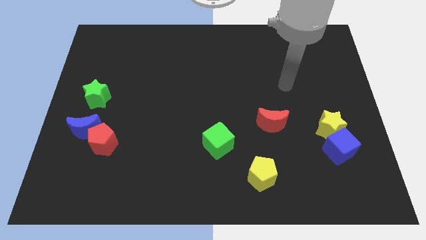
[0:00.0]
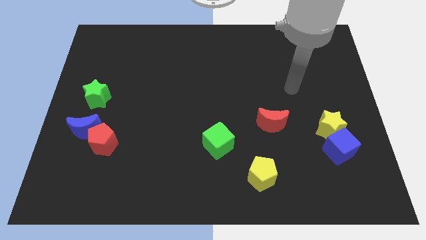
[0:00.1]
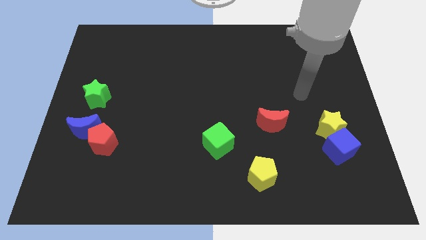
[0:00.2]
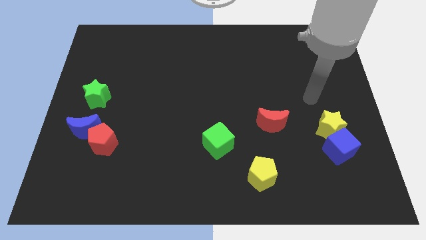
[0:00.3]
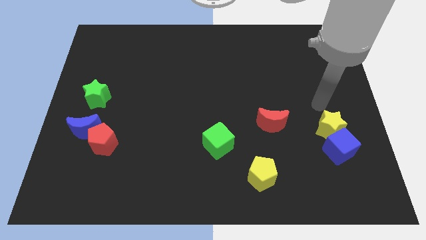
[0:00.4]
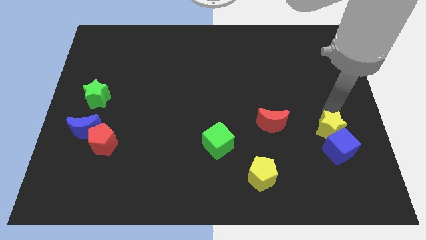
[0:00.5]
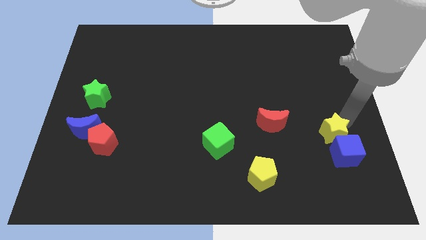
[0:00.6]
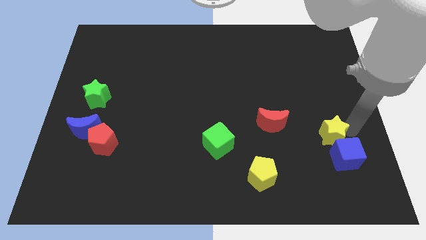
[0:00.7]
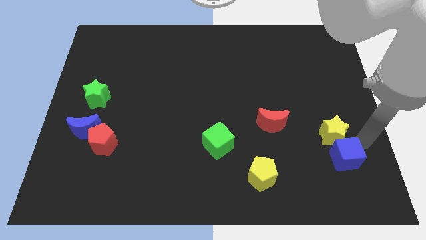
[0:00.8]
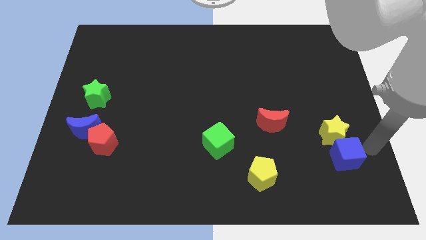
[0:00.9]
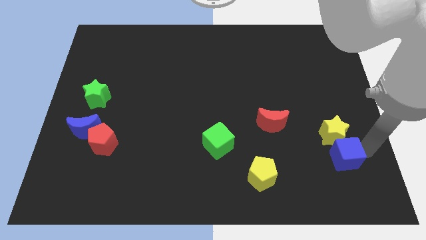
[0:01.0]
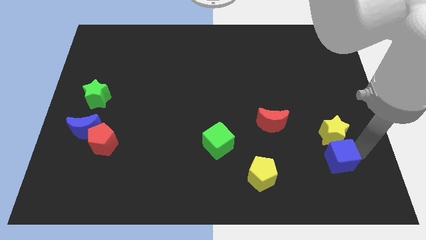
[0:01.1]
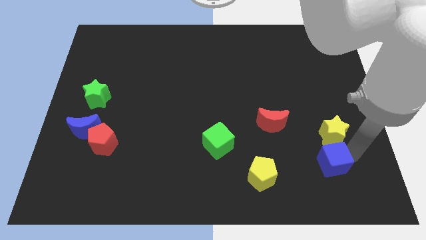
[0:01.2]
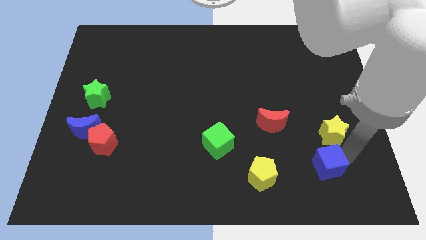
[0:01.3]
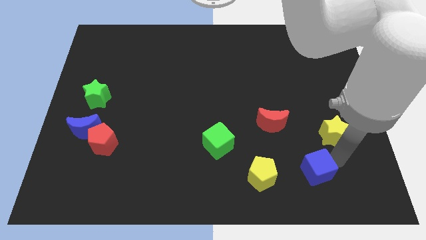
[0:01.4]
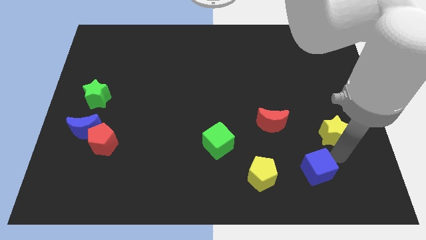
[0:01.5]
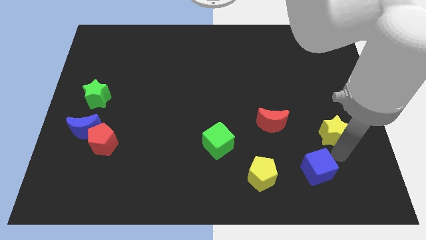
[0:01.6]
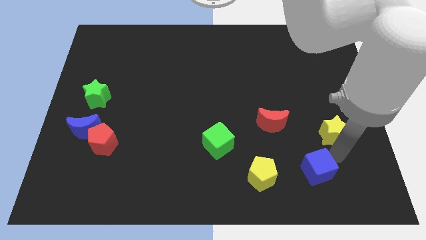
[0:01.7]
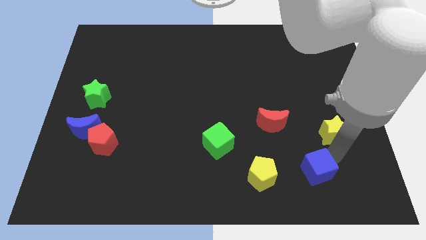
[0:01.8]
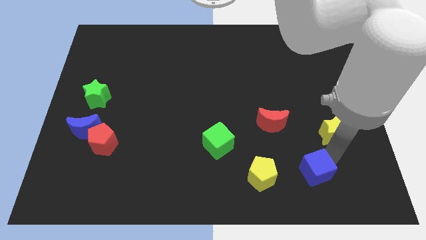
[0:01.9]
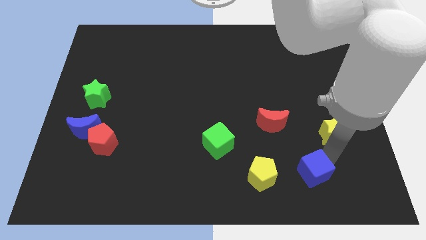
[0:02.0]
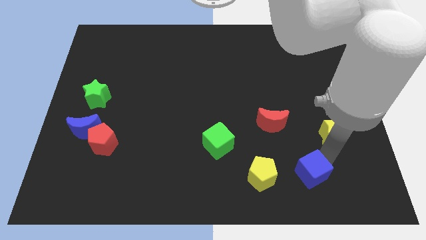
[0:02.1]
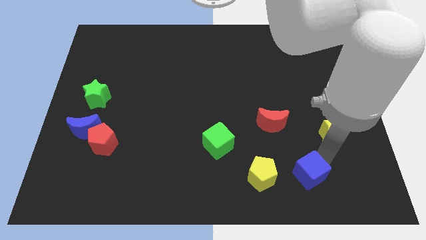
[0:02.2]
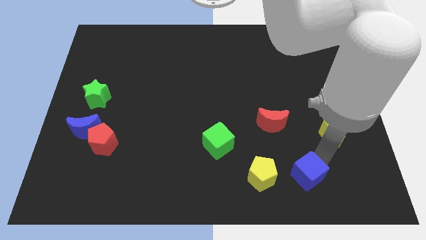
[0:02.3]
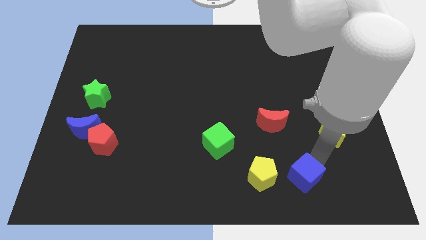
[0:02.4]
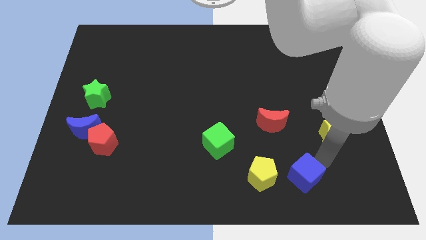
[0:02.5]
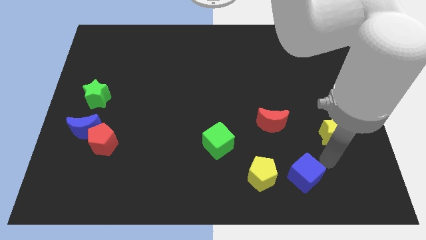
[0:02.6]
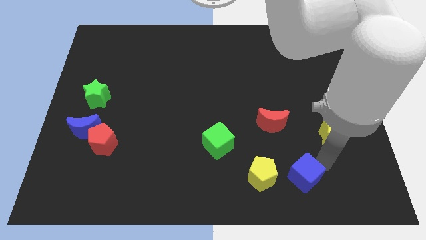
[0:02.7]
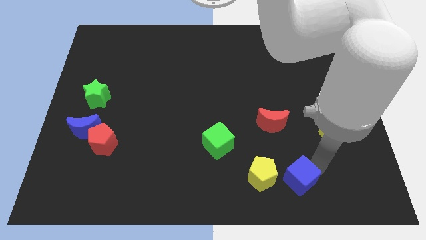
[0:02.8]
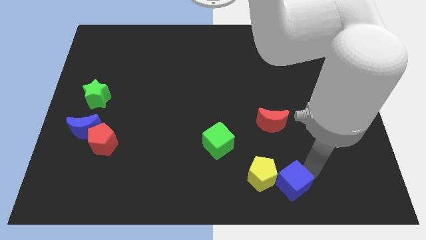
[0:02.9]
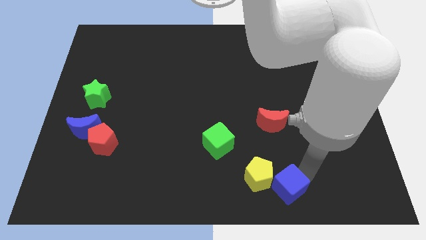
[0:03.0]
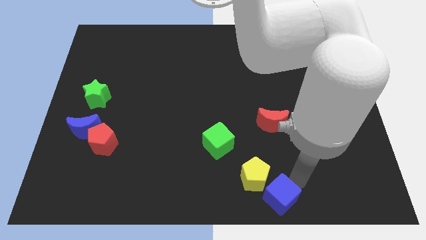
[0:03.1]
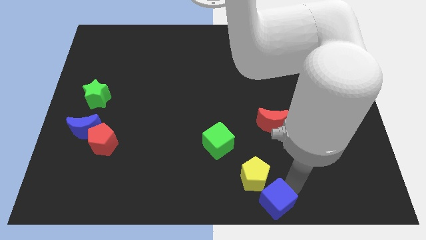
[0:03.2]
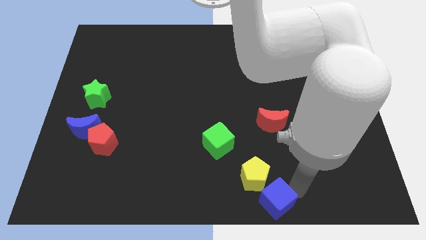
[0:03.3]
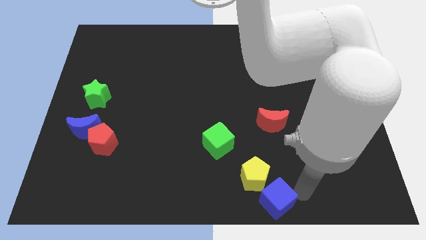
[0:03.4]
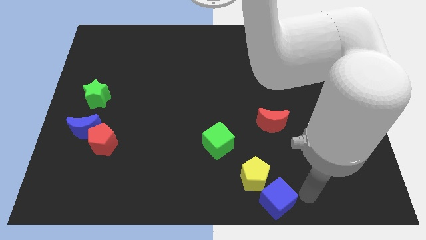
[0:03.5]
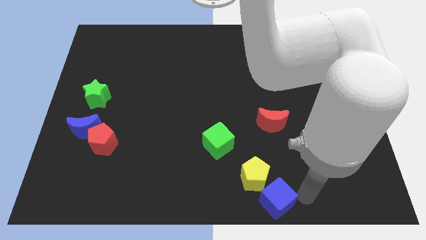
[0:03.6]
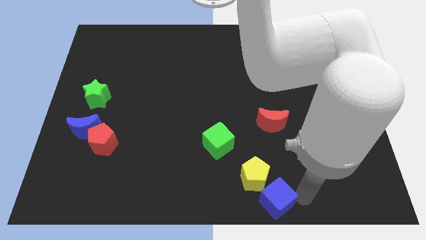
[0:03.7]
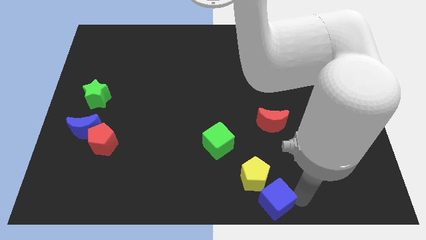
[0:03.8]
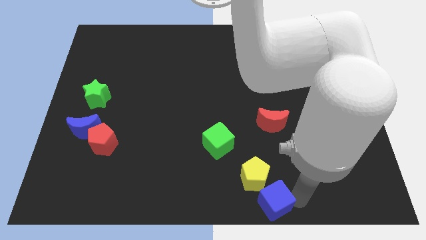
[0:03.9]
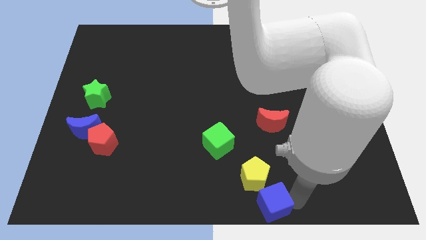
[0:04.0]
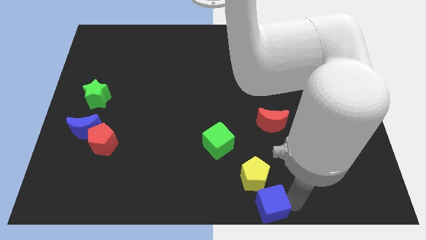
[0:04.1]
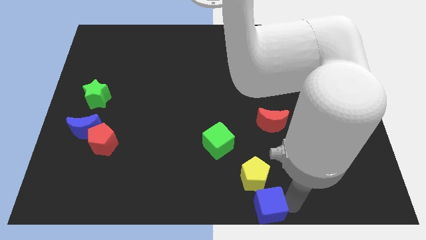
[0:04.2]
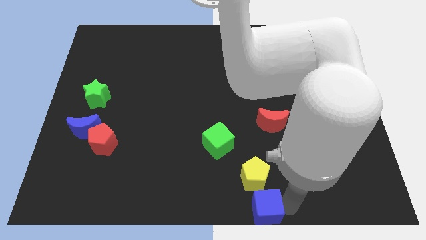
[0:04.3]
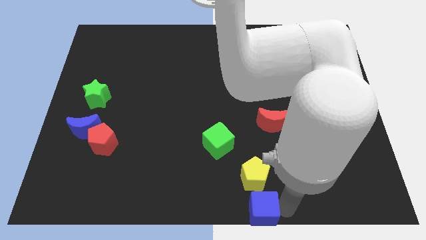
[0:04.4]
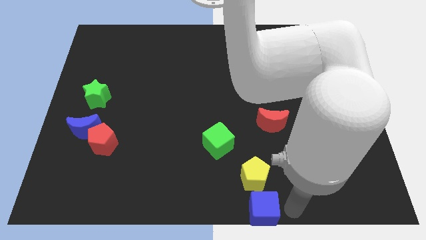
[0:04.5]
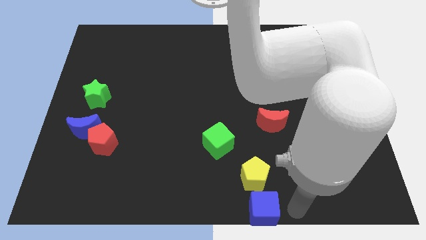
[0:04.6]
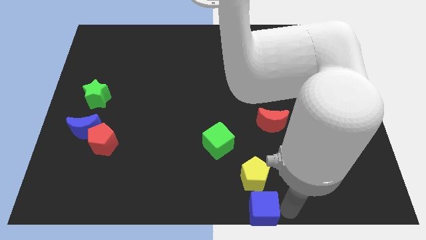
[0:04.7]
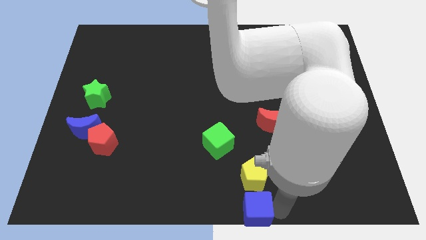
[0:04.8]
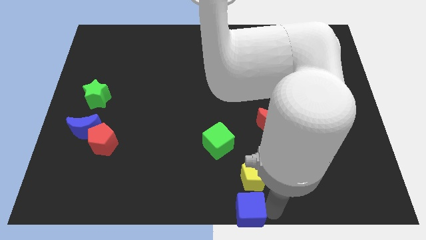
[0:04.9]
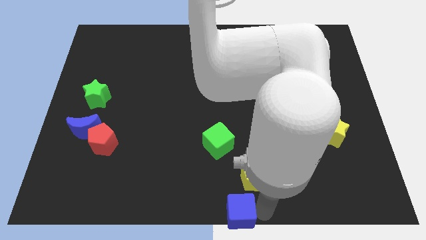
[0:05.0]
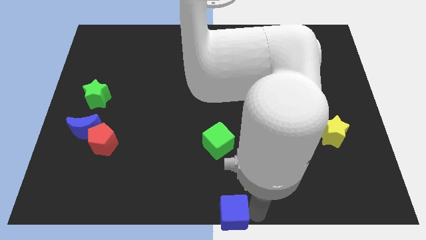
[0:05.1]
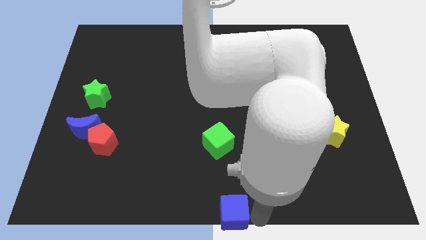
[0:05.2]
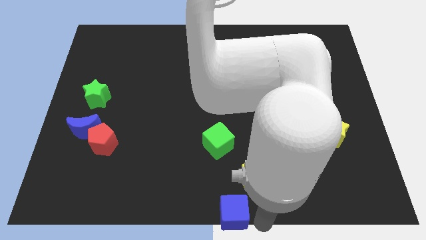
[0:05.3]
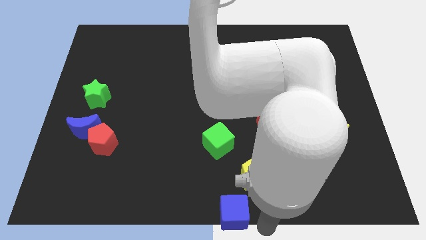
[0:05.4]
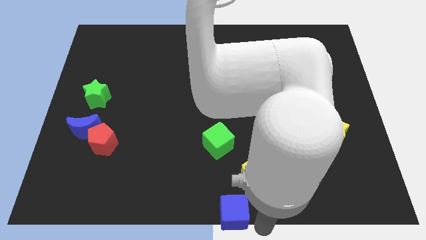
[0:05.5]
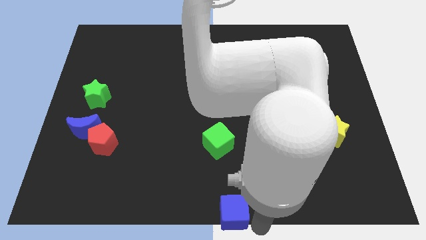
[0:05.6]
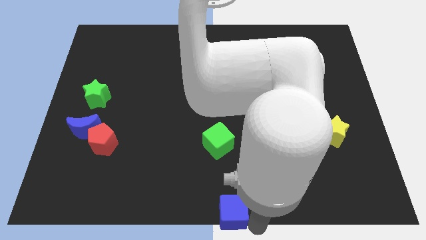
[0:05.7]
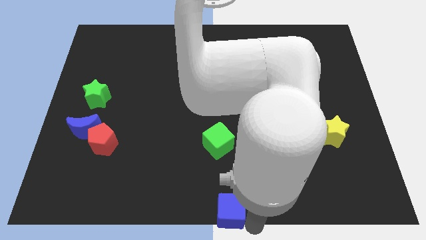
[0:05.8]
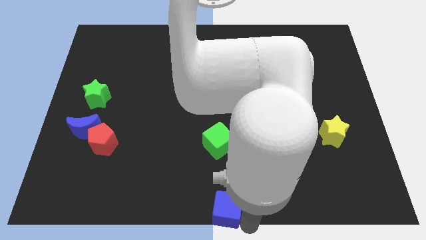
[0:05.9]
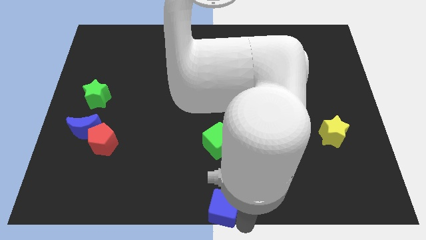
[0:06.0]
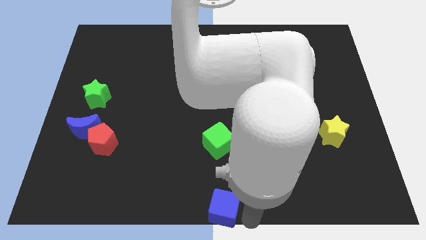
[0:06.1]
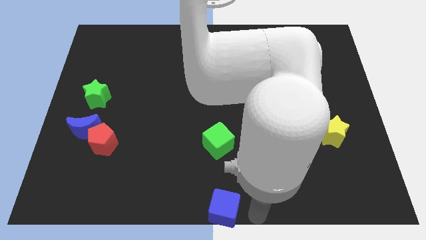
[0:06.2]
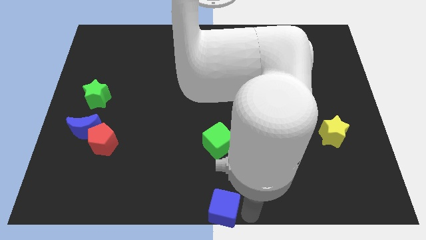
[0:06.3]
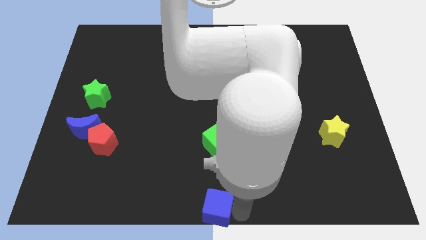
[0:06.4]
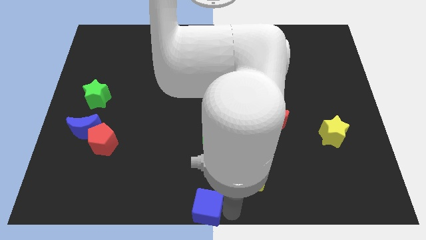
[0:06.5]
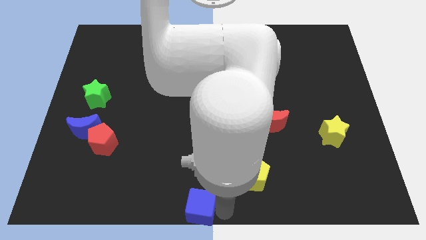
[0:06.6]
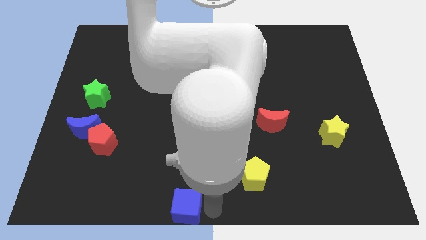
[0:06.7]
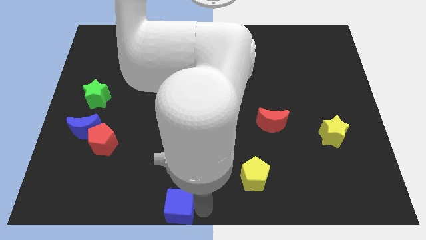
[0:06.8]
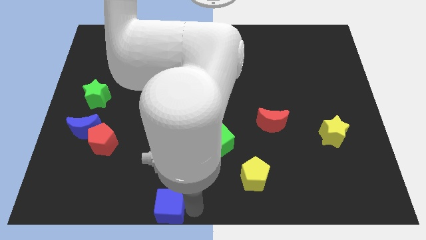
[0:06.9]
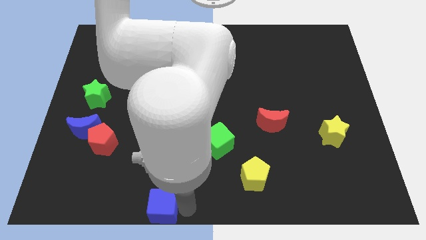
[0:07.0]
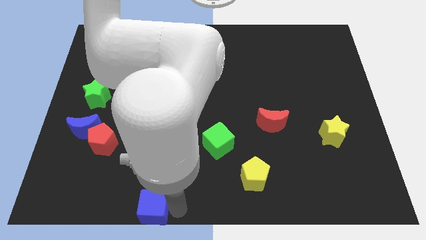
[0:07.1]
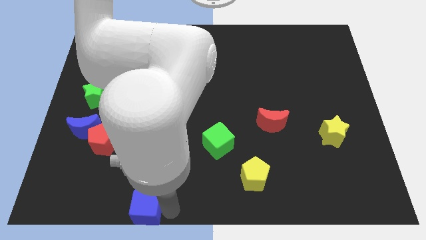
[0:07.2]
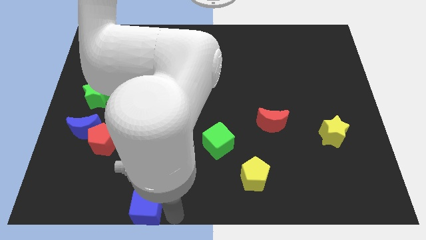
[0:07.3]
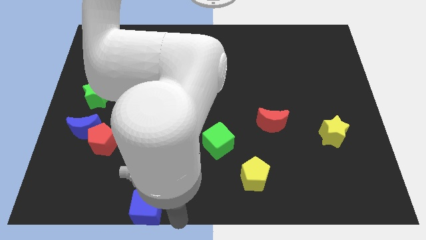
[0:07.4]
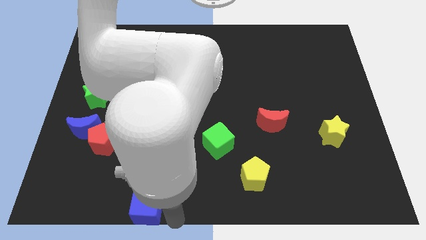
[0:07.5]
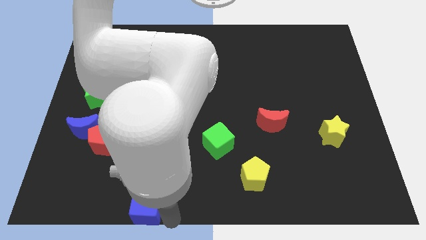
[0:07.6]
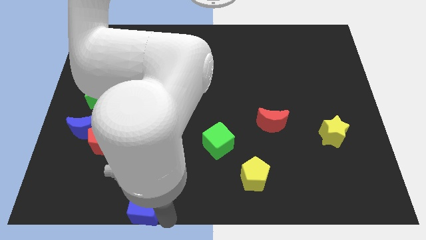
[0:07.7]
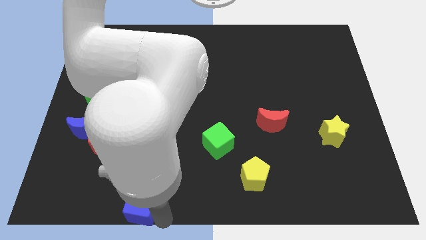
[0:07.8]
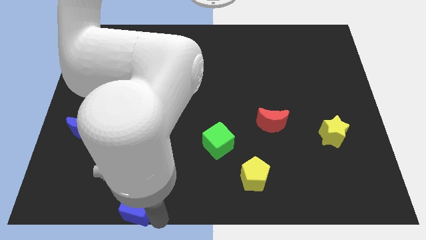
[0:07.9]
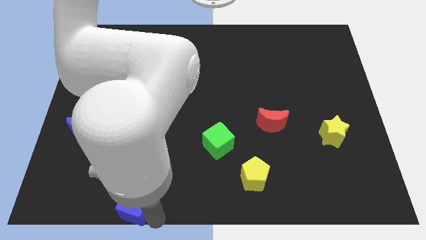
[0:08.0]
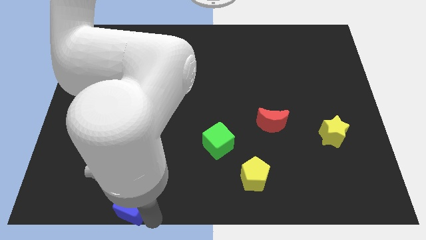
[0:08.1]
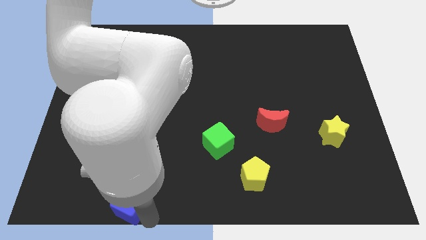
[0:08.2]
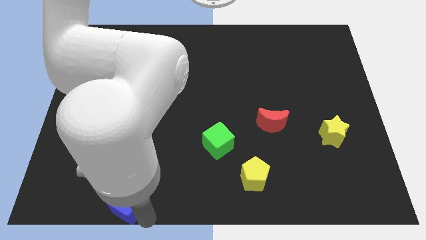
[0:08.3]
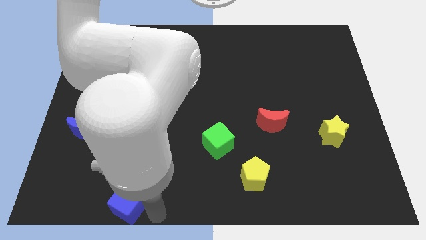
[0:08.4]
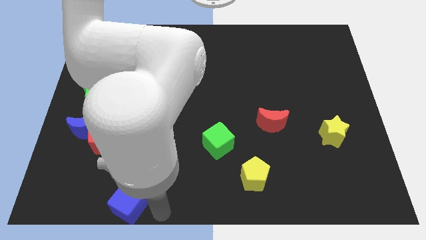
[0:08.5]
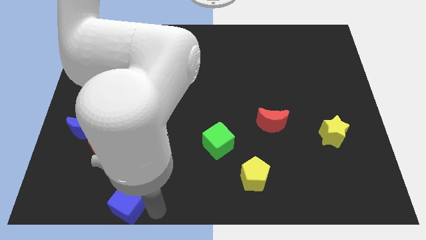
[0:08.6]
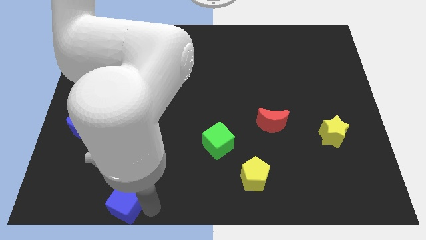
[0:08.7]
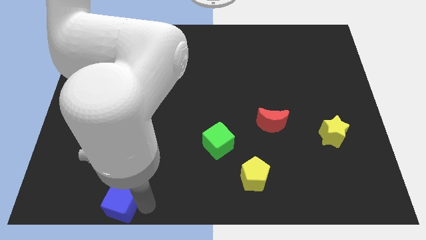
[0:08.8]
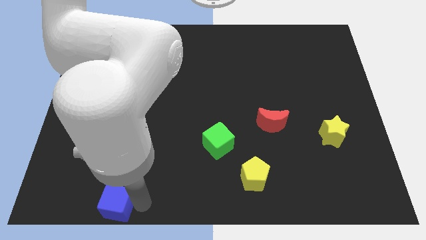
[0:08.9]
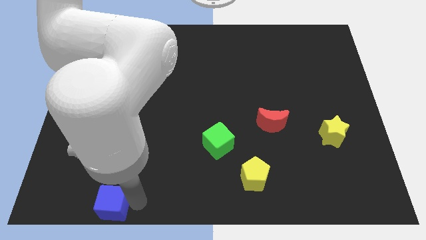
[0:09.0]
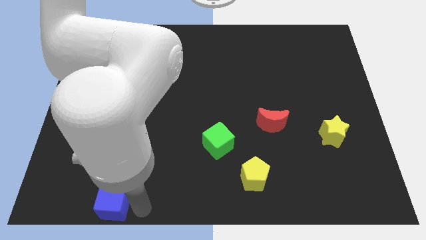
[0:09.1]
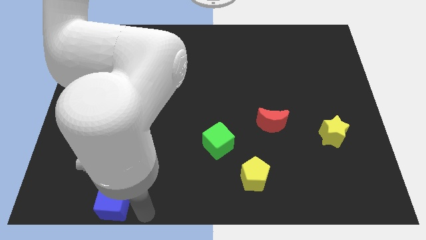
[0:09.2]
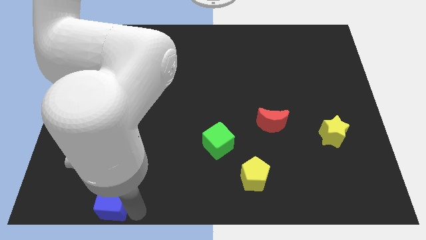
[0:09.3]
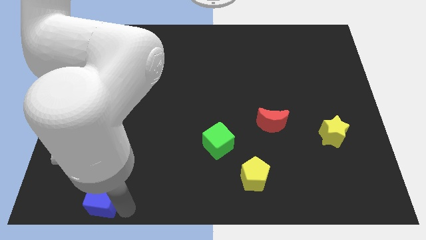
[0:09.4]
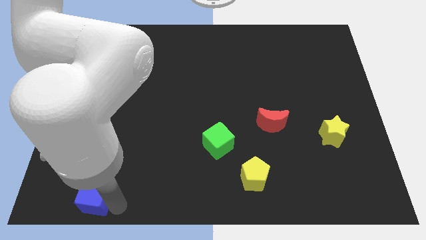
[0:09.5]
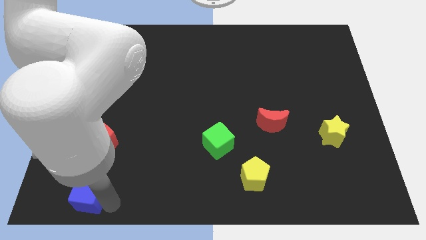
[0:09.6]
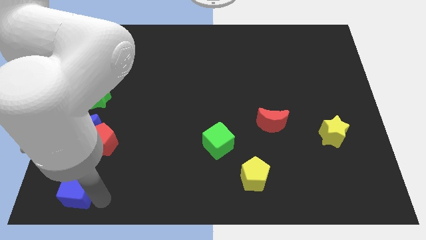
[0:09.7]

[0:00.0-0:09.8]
push the blue cube to the lower left corner
